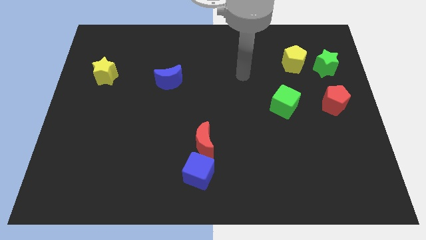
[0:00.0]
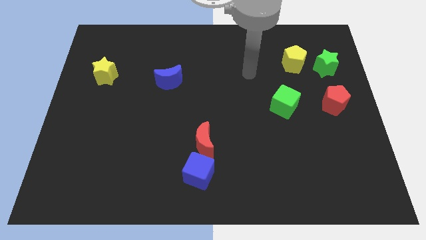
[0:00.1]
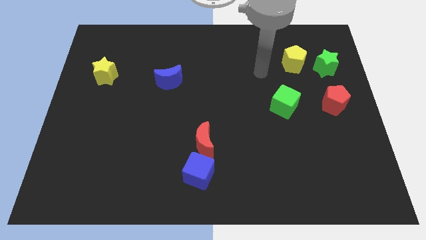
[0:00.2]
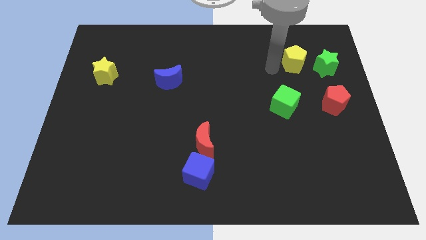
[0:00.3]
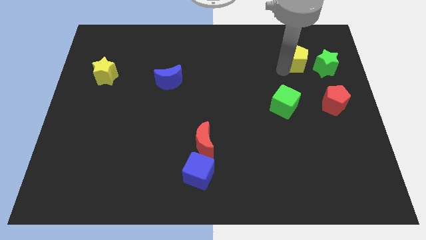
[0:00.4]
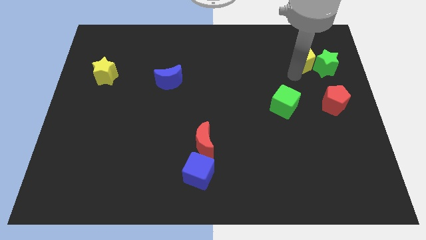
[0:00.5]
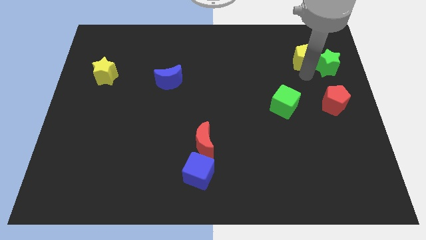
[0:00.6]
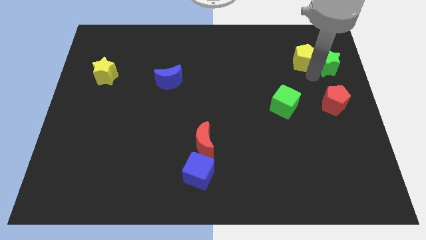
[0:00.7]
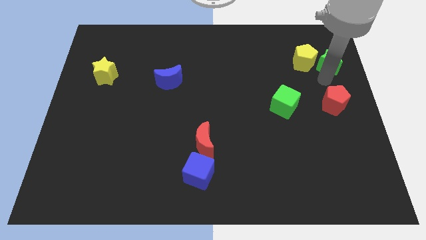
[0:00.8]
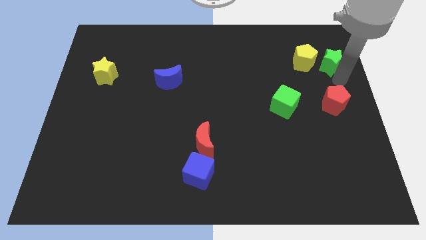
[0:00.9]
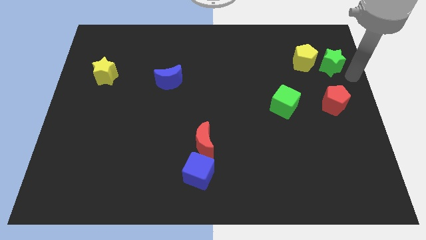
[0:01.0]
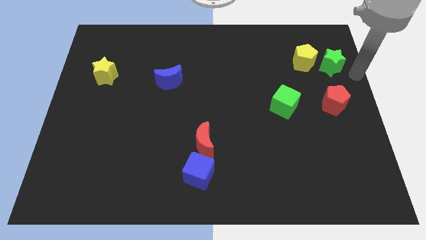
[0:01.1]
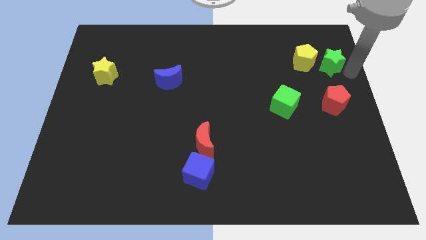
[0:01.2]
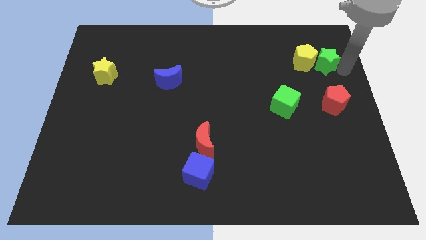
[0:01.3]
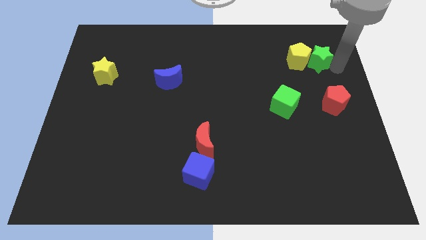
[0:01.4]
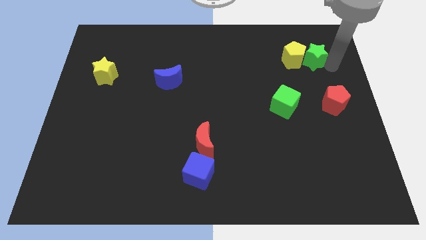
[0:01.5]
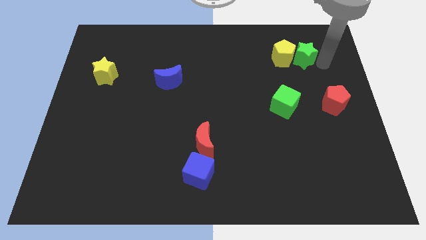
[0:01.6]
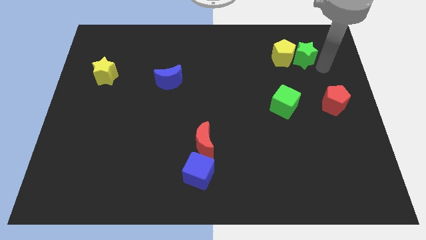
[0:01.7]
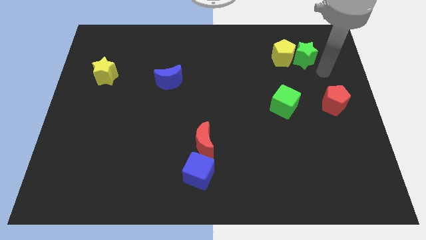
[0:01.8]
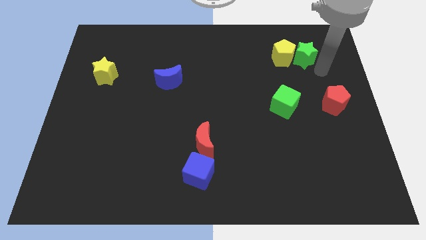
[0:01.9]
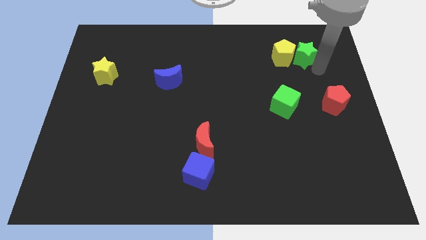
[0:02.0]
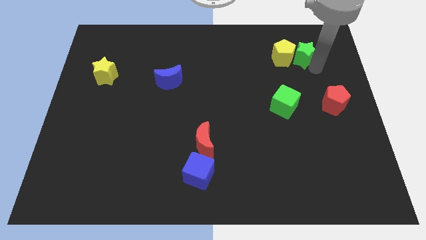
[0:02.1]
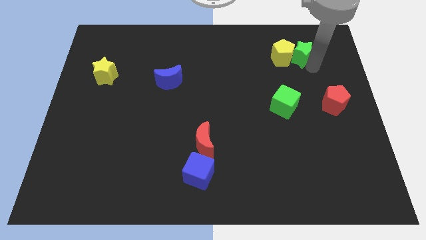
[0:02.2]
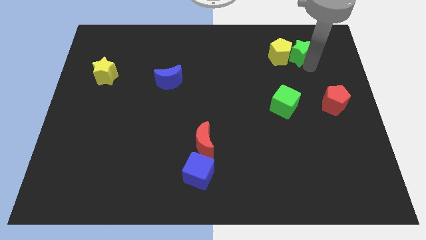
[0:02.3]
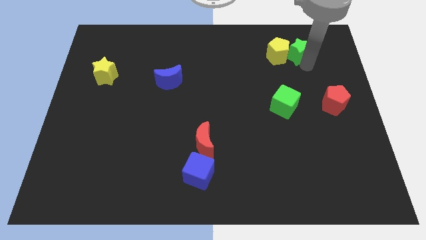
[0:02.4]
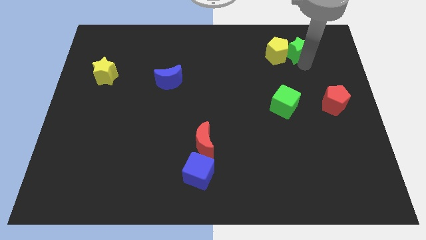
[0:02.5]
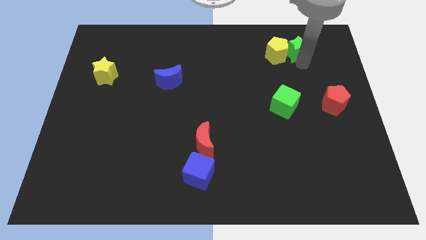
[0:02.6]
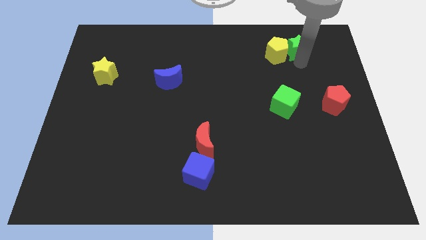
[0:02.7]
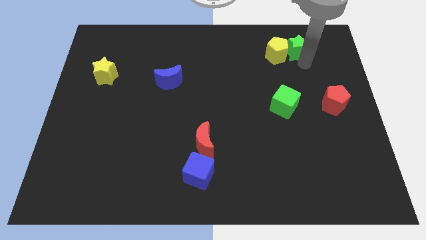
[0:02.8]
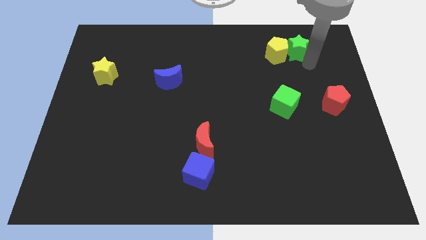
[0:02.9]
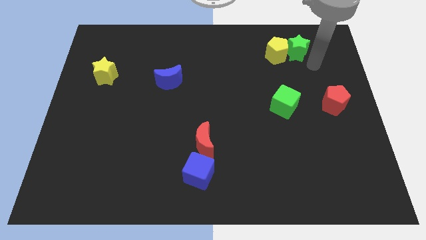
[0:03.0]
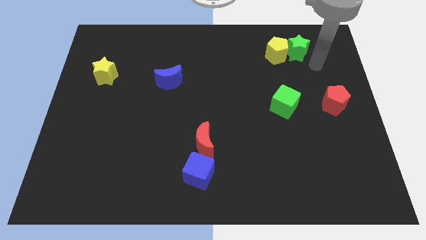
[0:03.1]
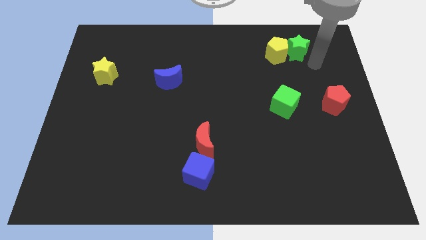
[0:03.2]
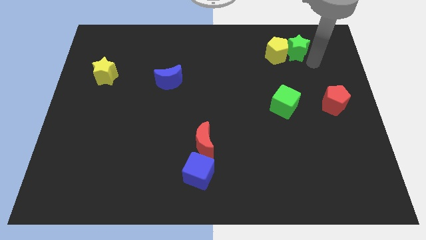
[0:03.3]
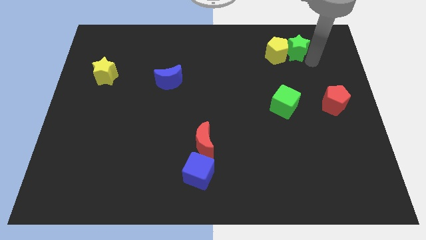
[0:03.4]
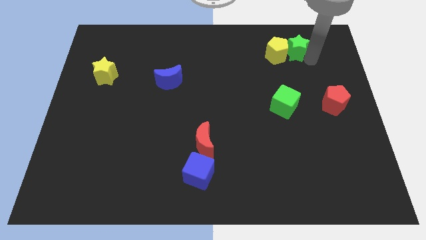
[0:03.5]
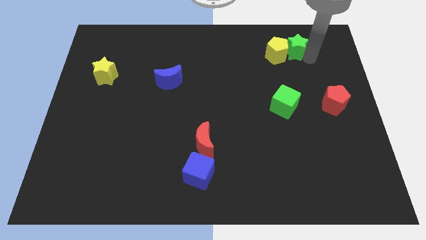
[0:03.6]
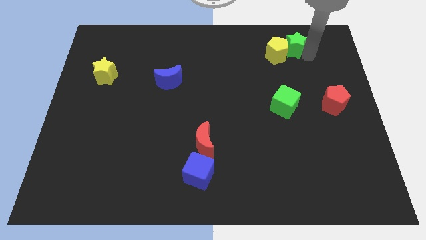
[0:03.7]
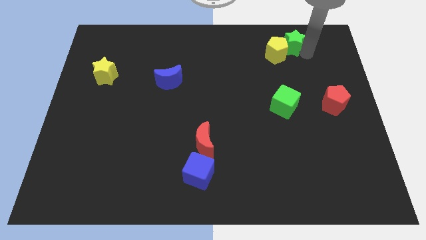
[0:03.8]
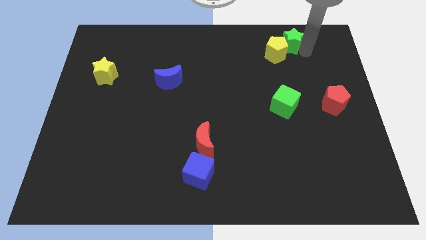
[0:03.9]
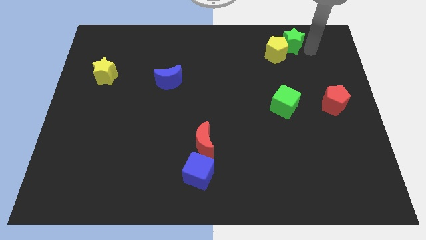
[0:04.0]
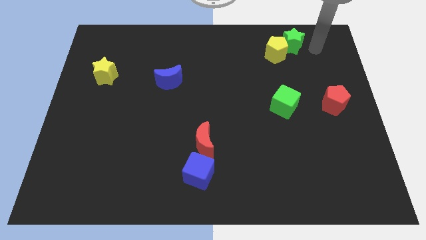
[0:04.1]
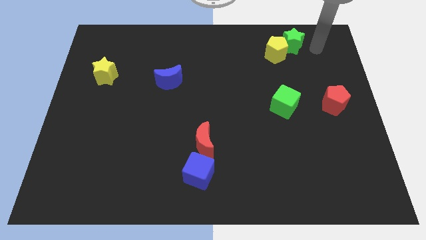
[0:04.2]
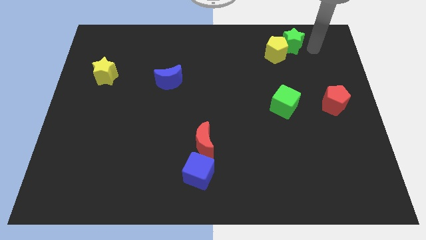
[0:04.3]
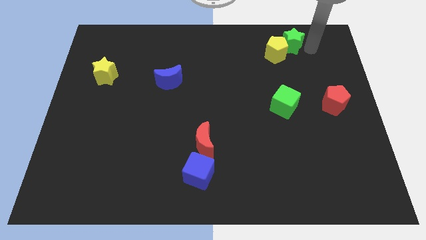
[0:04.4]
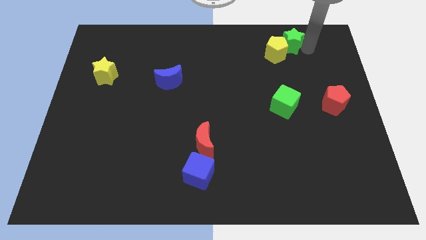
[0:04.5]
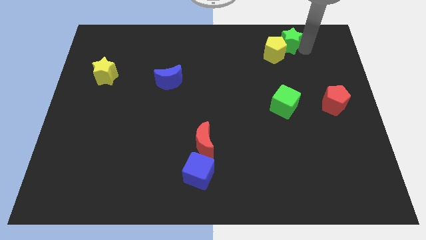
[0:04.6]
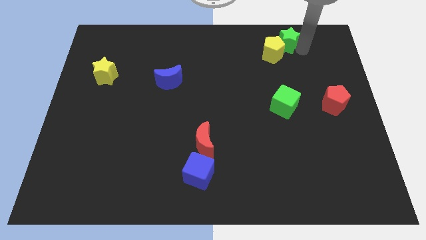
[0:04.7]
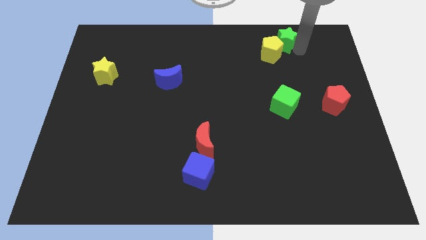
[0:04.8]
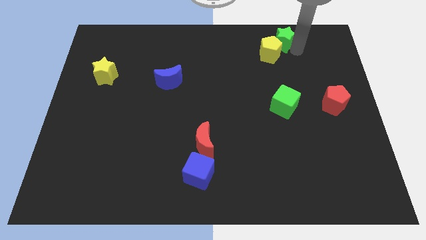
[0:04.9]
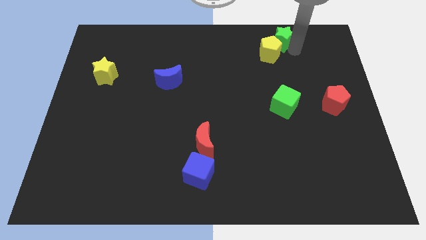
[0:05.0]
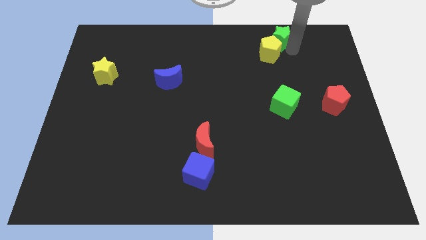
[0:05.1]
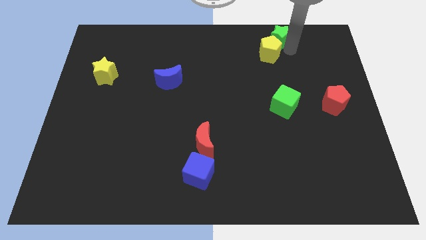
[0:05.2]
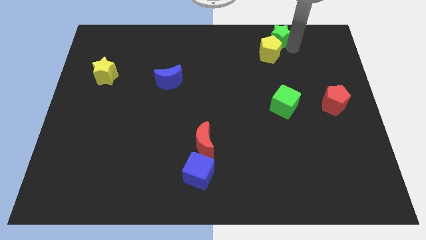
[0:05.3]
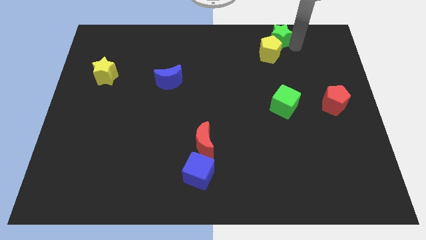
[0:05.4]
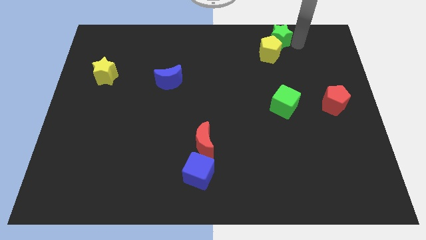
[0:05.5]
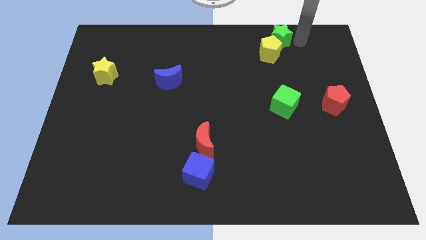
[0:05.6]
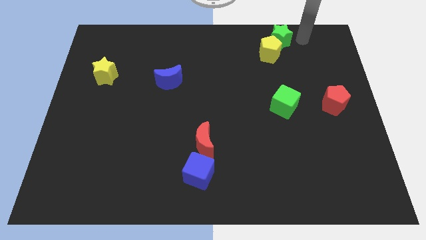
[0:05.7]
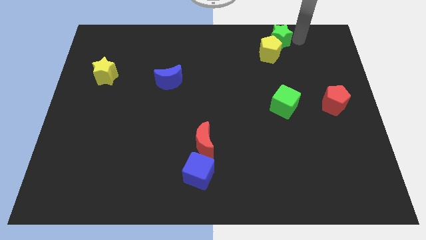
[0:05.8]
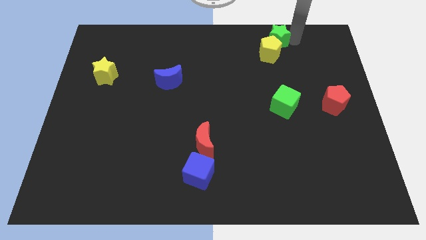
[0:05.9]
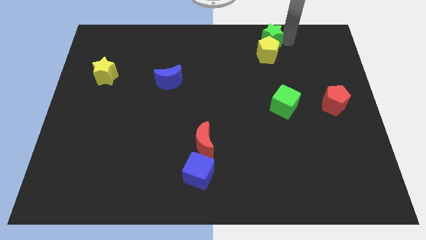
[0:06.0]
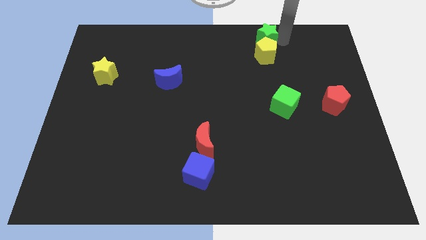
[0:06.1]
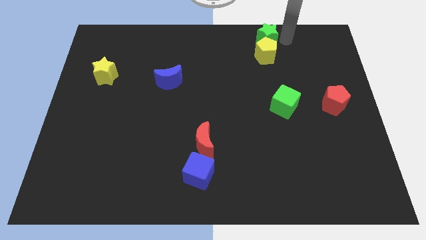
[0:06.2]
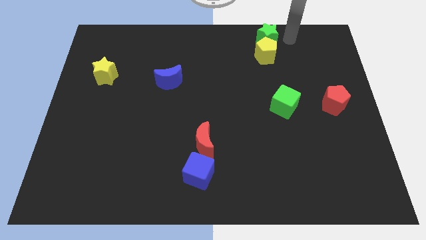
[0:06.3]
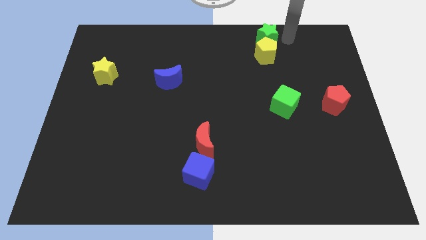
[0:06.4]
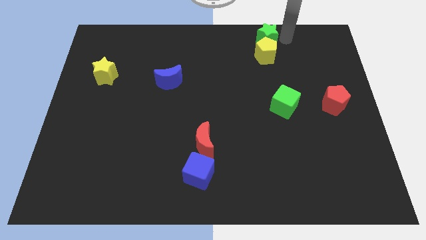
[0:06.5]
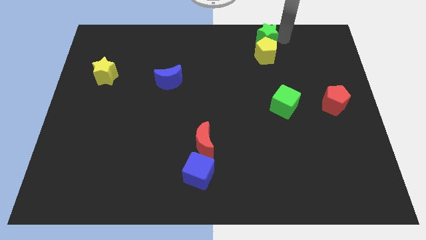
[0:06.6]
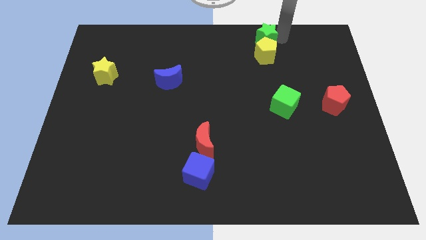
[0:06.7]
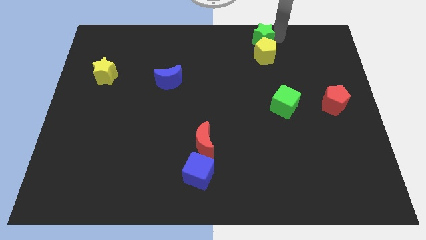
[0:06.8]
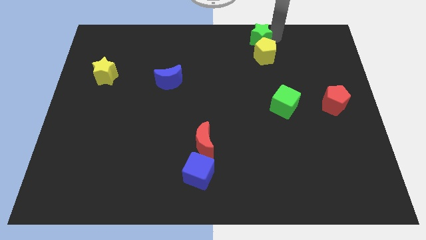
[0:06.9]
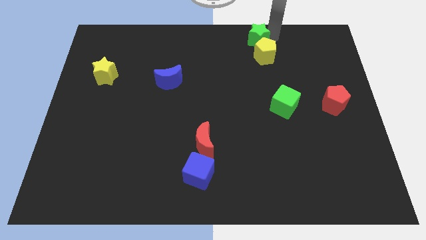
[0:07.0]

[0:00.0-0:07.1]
move the green star to the top
